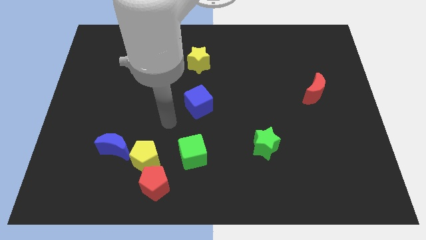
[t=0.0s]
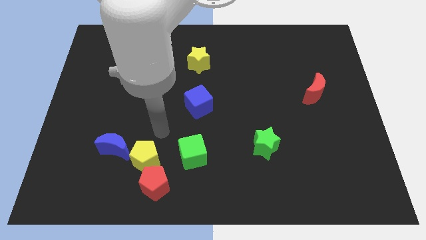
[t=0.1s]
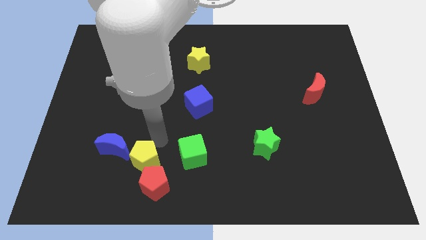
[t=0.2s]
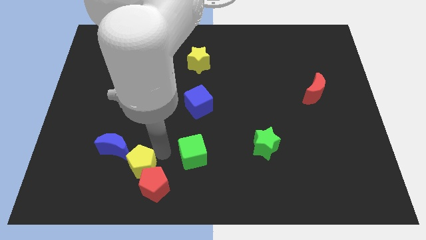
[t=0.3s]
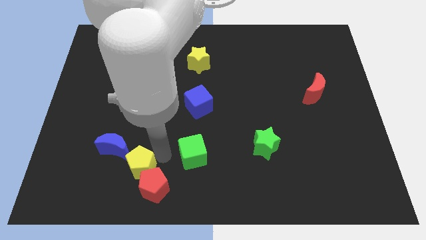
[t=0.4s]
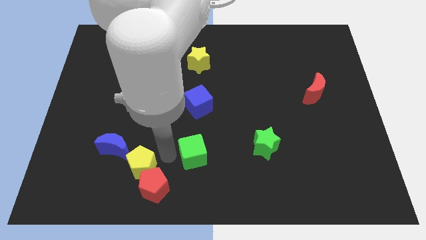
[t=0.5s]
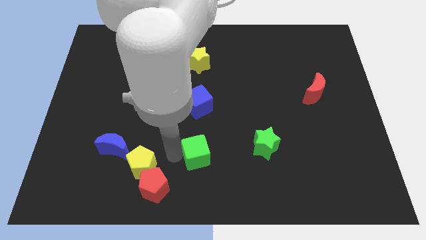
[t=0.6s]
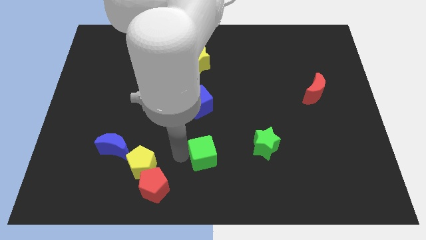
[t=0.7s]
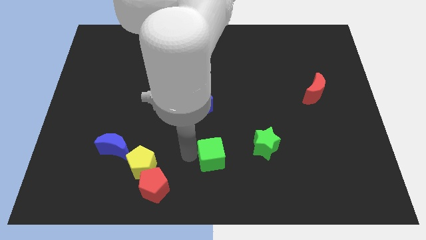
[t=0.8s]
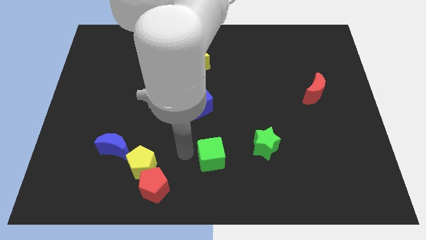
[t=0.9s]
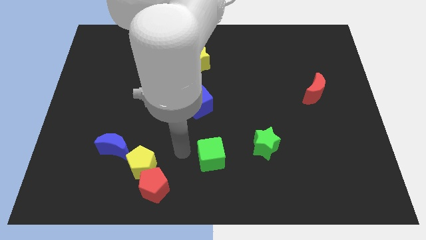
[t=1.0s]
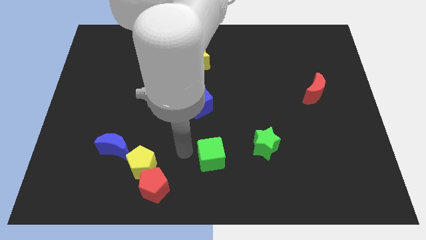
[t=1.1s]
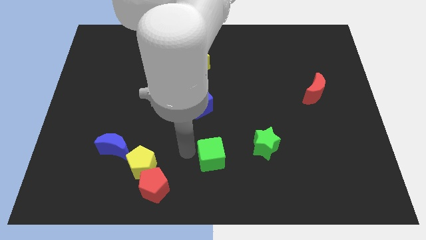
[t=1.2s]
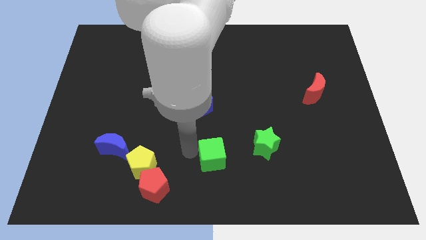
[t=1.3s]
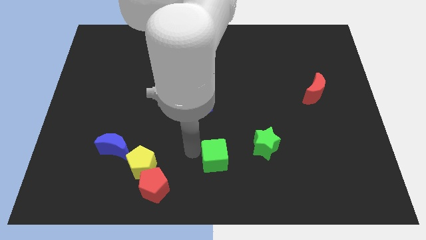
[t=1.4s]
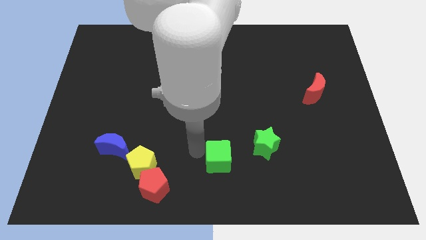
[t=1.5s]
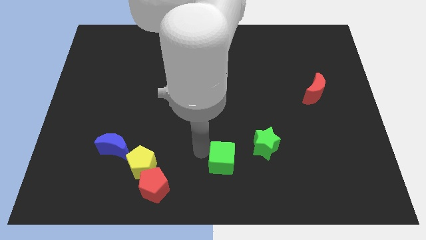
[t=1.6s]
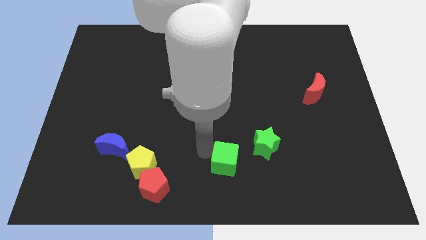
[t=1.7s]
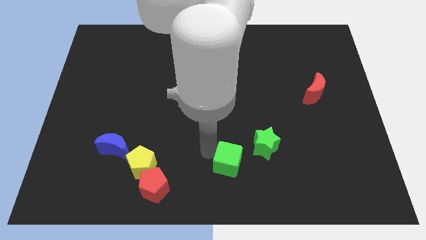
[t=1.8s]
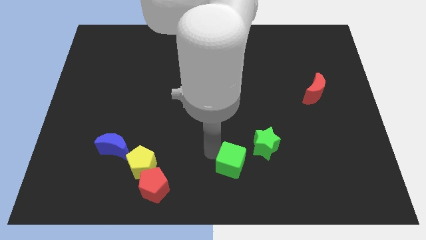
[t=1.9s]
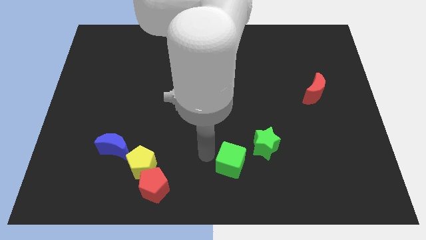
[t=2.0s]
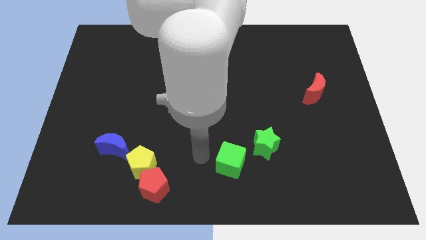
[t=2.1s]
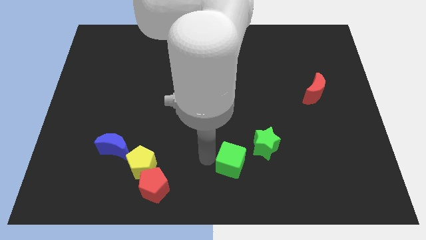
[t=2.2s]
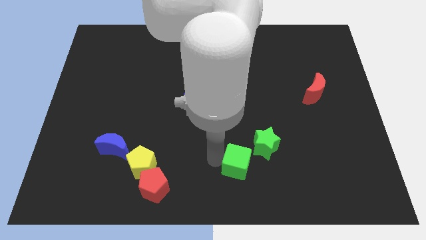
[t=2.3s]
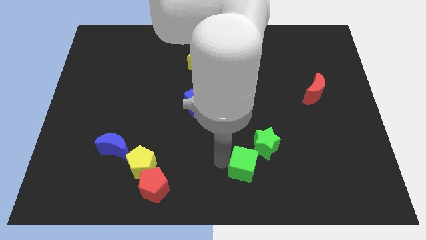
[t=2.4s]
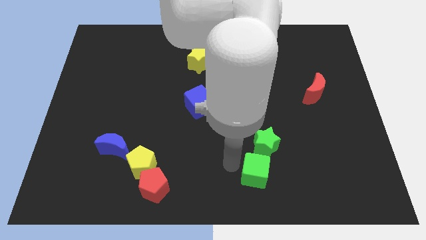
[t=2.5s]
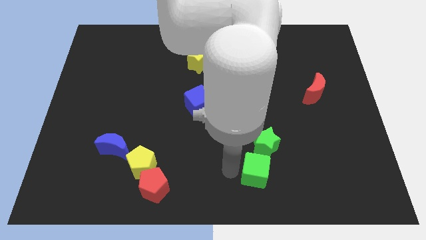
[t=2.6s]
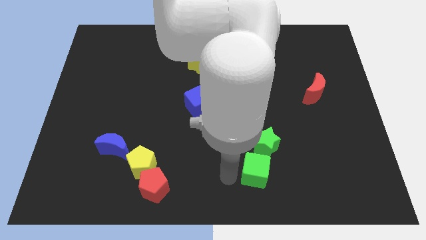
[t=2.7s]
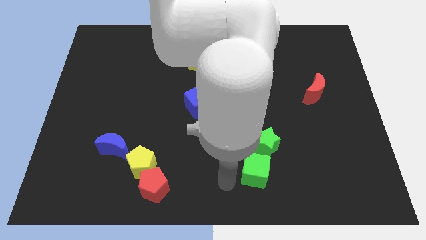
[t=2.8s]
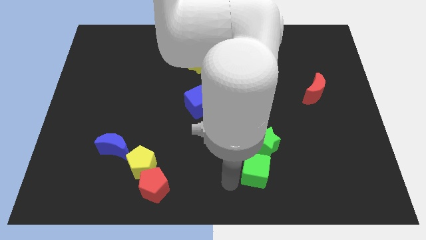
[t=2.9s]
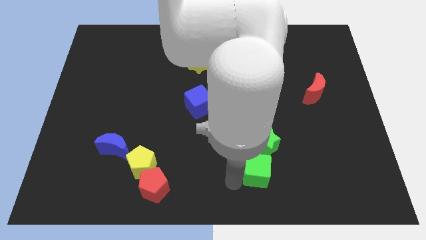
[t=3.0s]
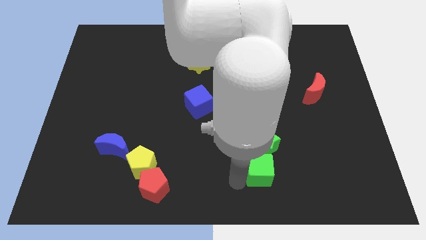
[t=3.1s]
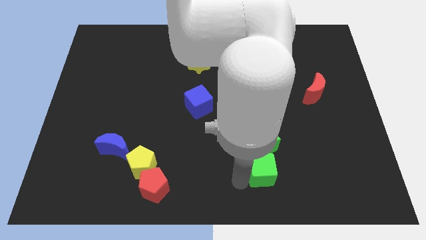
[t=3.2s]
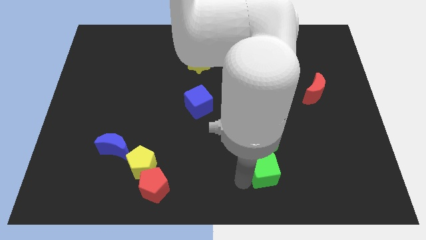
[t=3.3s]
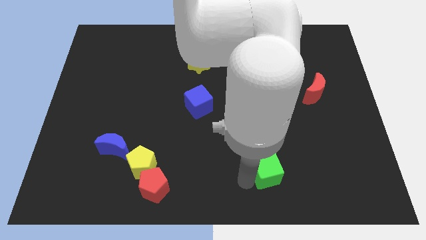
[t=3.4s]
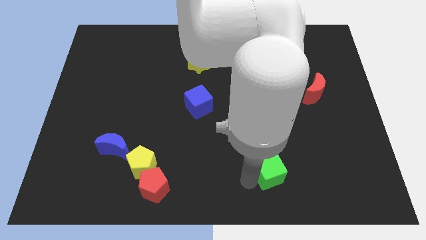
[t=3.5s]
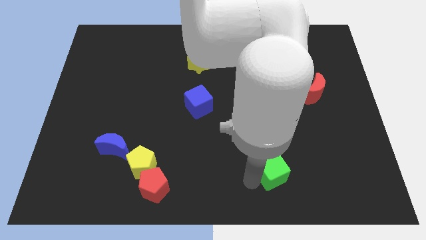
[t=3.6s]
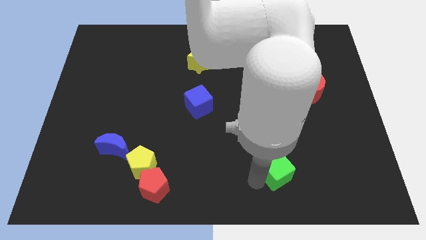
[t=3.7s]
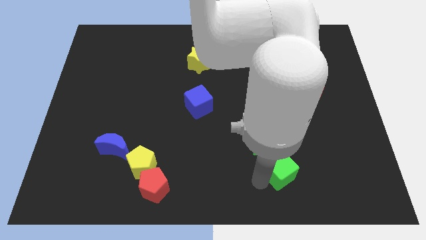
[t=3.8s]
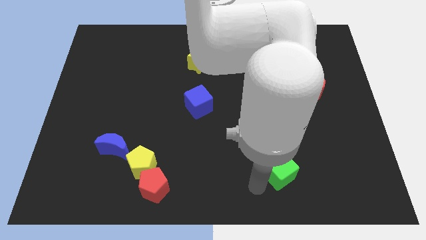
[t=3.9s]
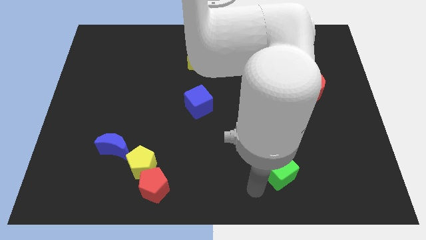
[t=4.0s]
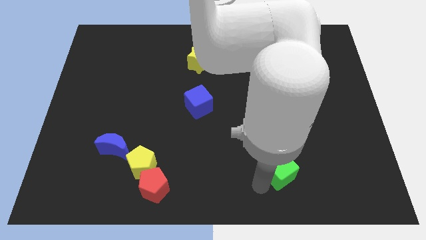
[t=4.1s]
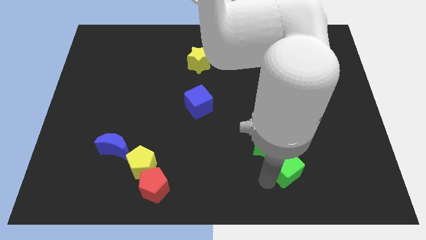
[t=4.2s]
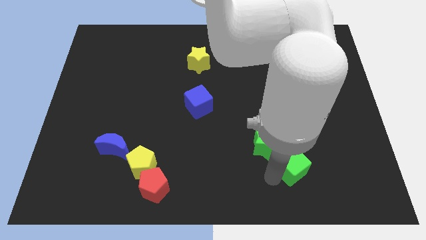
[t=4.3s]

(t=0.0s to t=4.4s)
slide the green cube to the right

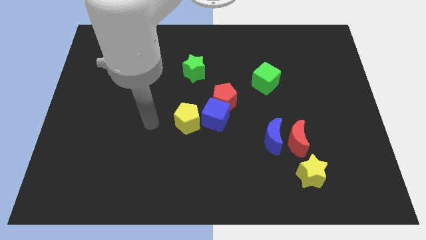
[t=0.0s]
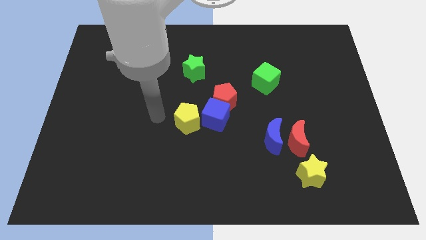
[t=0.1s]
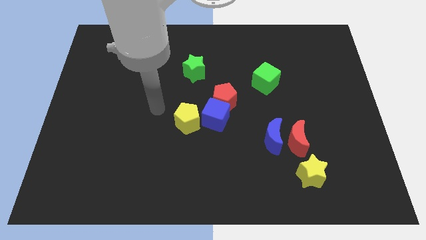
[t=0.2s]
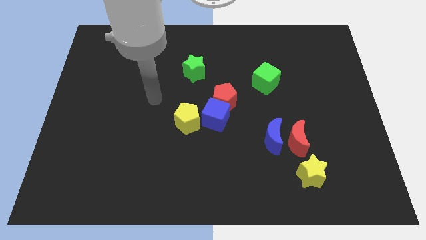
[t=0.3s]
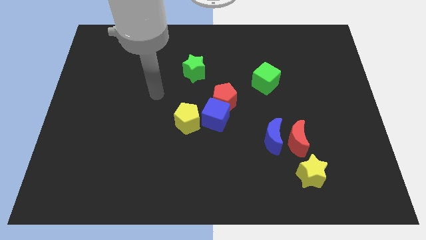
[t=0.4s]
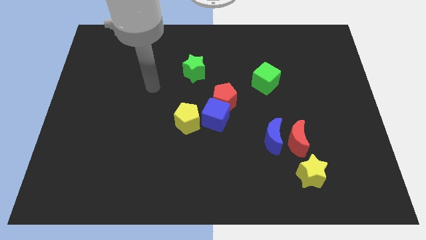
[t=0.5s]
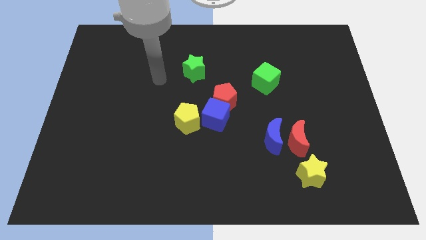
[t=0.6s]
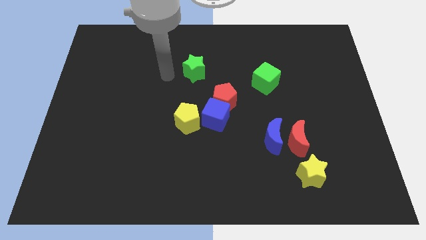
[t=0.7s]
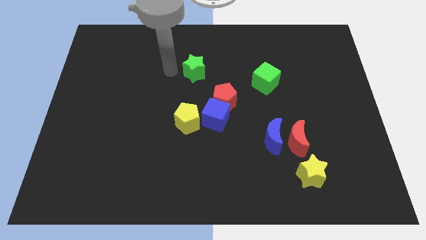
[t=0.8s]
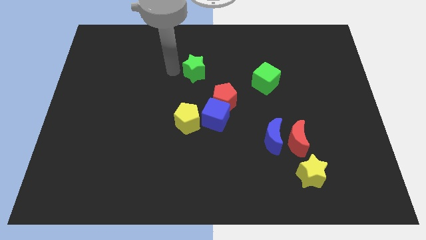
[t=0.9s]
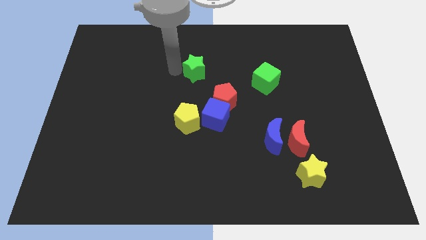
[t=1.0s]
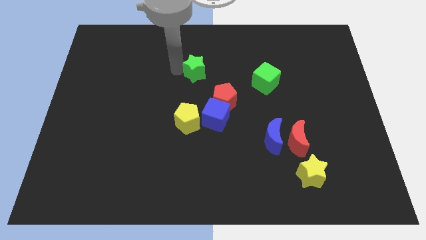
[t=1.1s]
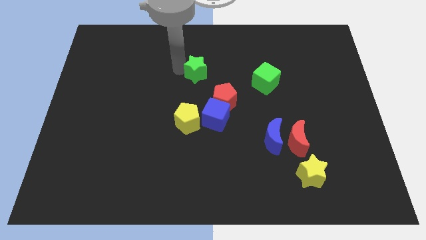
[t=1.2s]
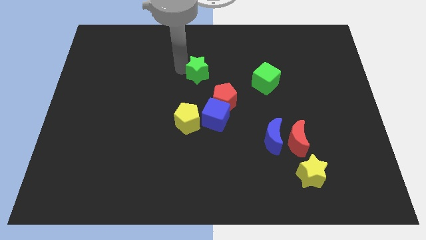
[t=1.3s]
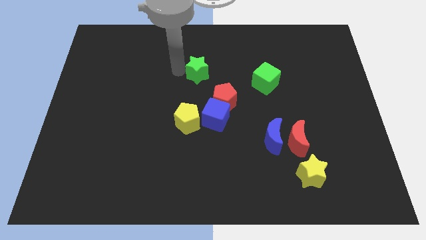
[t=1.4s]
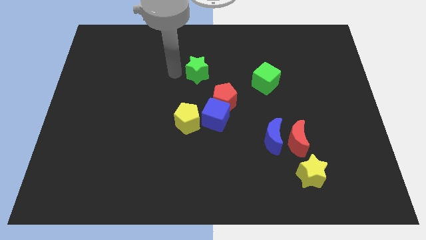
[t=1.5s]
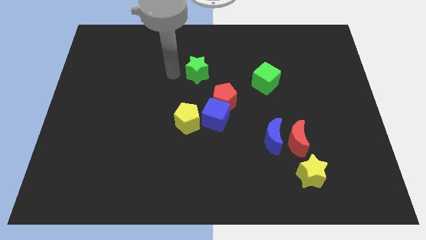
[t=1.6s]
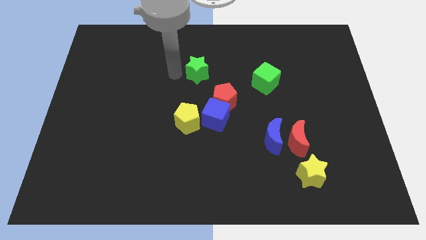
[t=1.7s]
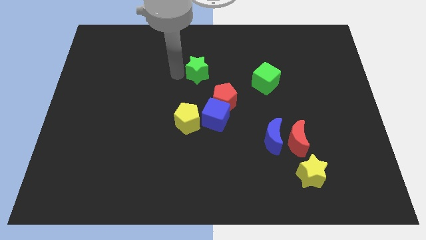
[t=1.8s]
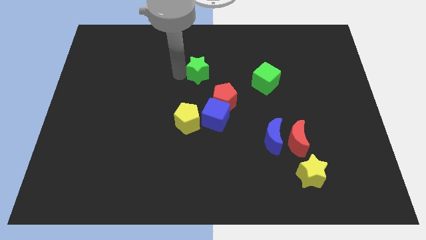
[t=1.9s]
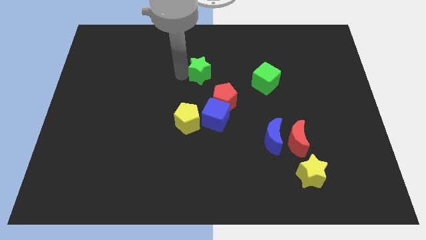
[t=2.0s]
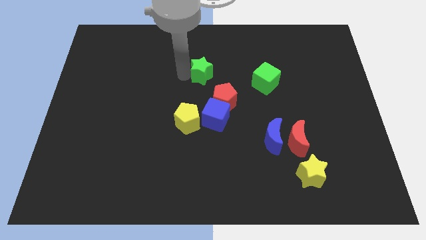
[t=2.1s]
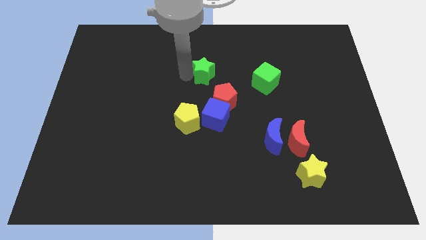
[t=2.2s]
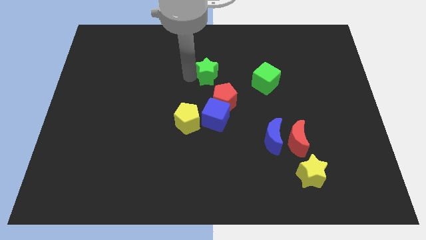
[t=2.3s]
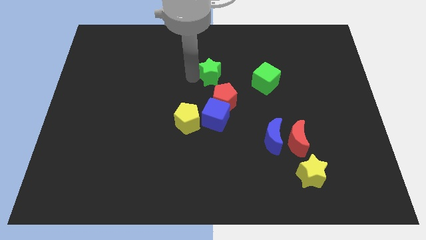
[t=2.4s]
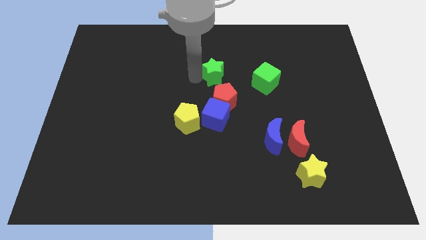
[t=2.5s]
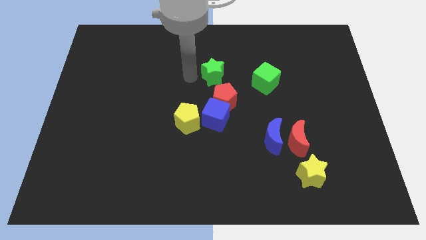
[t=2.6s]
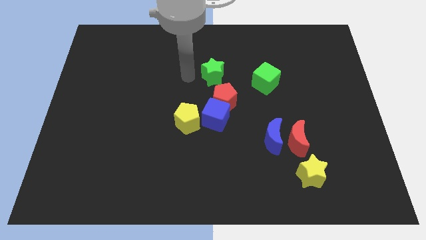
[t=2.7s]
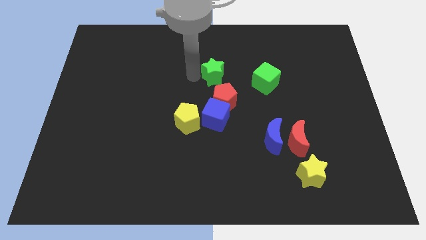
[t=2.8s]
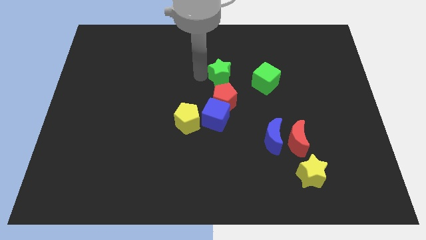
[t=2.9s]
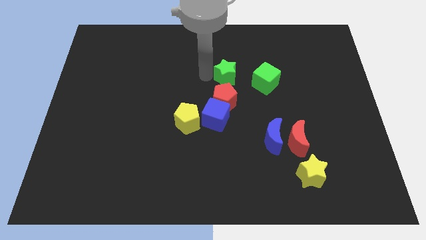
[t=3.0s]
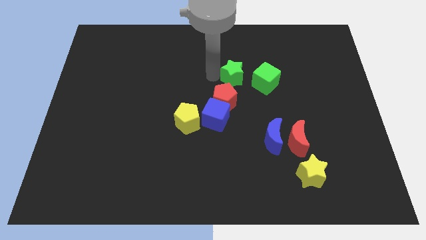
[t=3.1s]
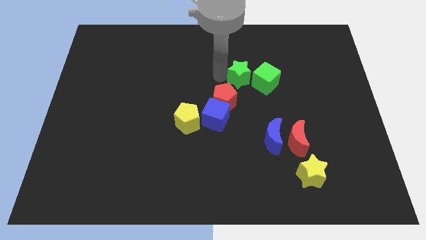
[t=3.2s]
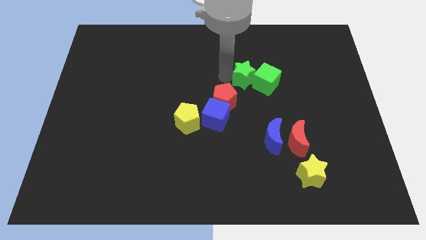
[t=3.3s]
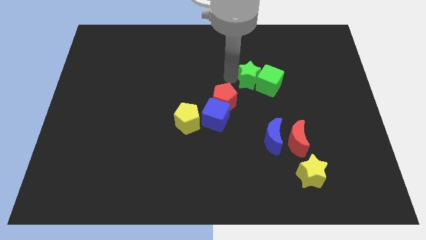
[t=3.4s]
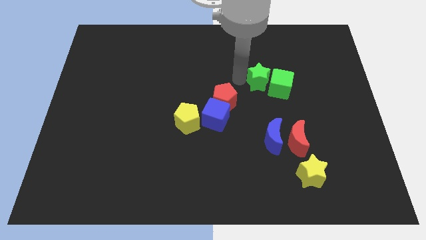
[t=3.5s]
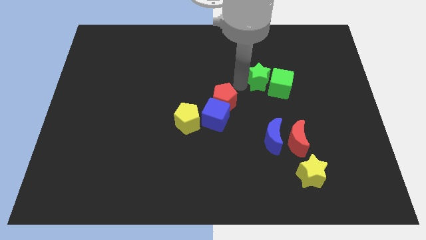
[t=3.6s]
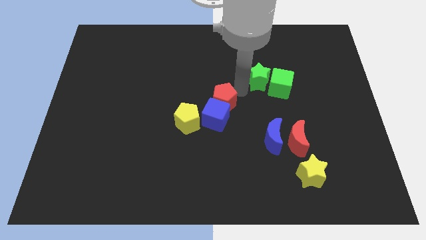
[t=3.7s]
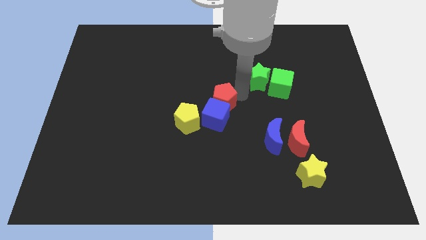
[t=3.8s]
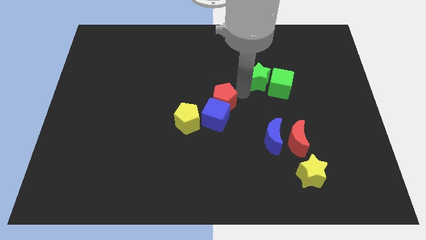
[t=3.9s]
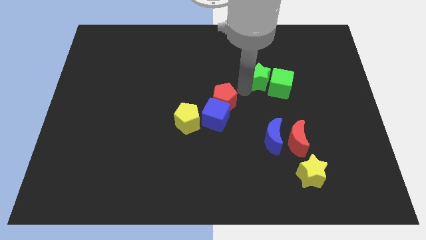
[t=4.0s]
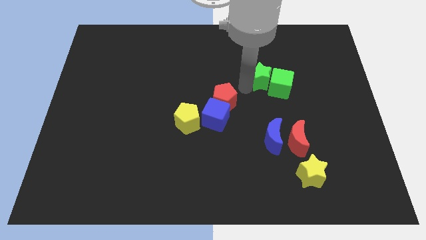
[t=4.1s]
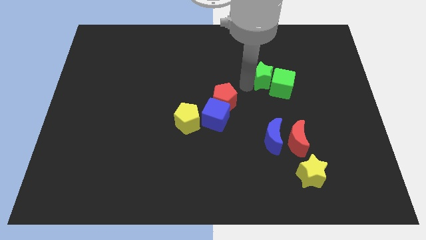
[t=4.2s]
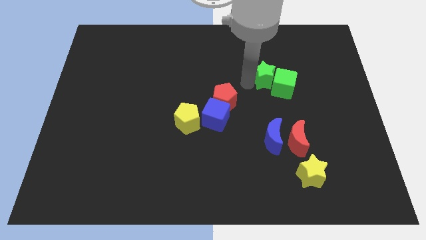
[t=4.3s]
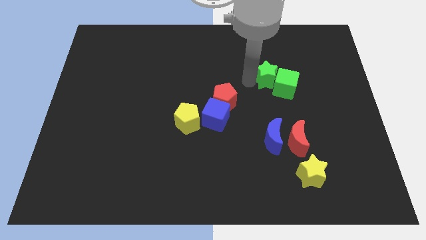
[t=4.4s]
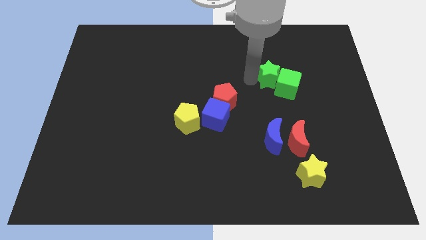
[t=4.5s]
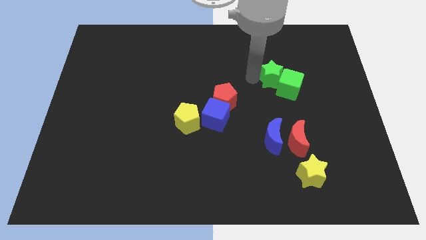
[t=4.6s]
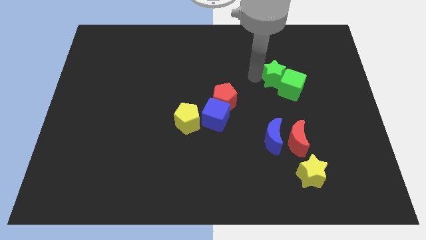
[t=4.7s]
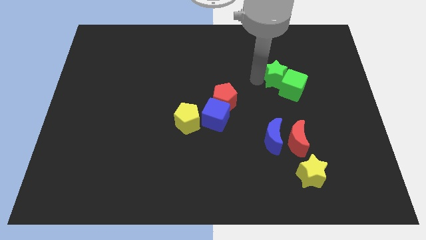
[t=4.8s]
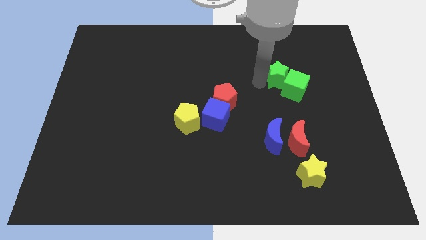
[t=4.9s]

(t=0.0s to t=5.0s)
push the green star right
